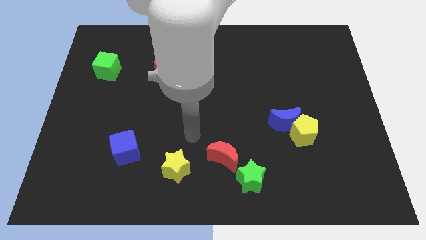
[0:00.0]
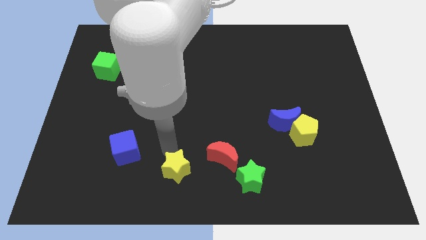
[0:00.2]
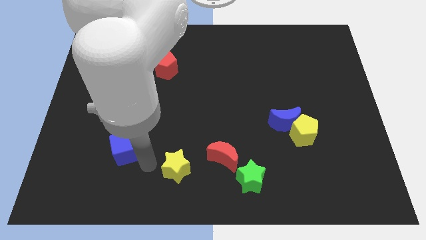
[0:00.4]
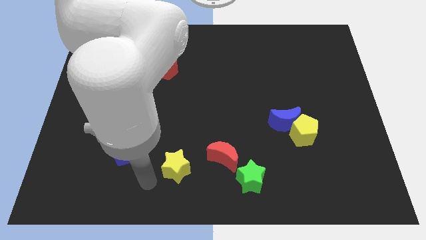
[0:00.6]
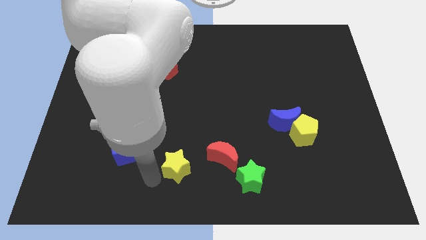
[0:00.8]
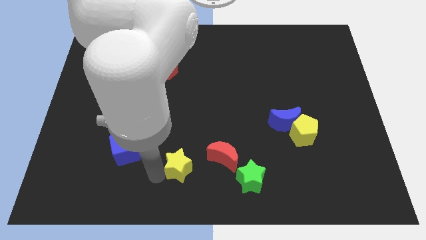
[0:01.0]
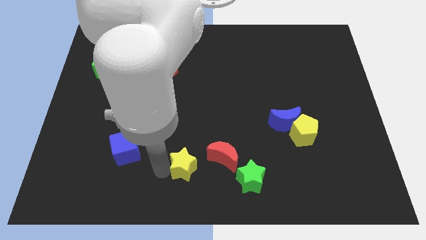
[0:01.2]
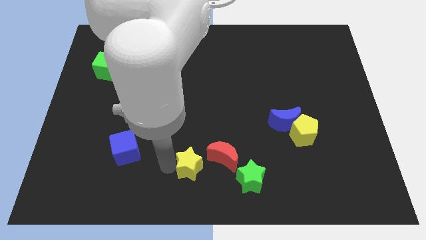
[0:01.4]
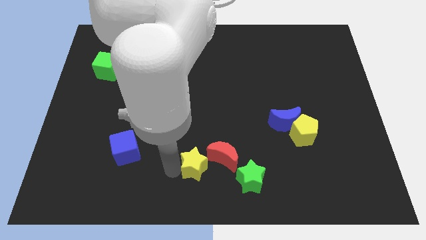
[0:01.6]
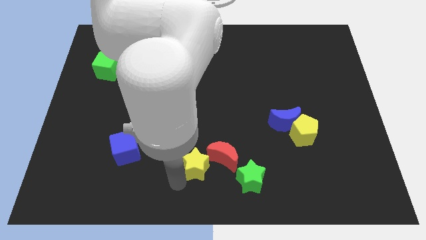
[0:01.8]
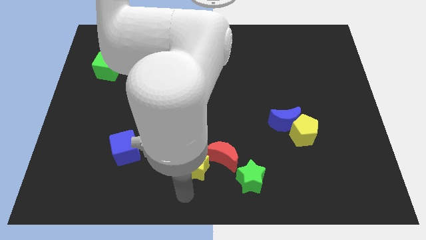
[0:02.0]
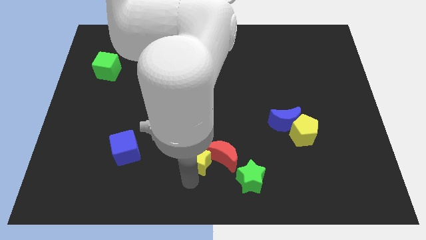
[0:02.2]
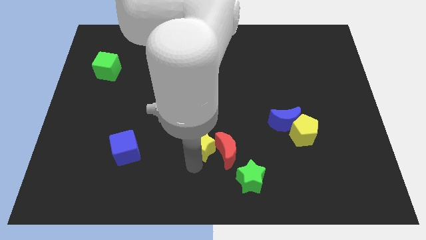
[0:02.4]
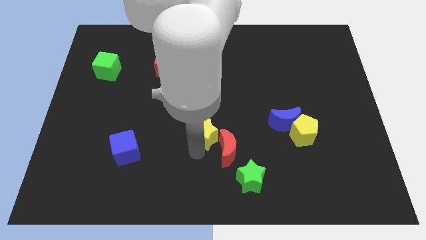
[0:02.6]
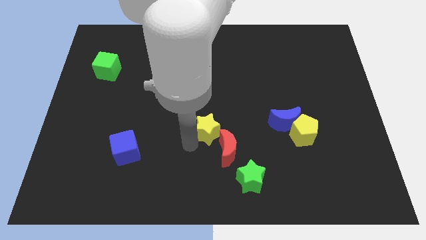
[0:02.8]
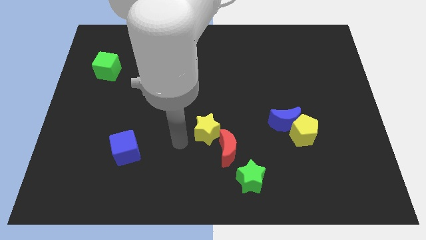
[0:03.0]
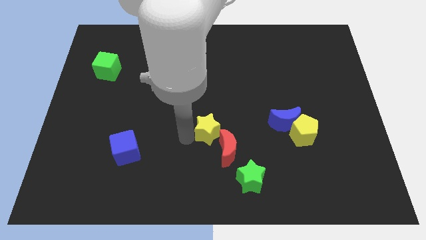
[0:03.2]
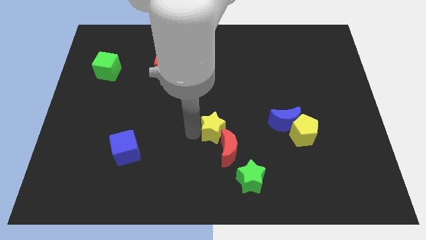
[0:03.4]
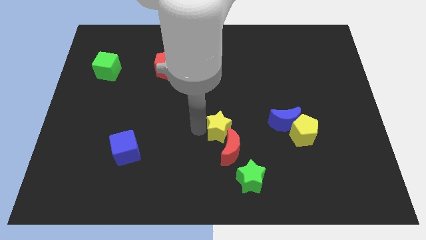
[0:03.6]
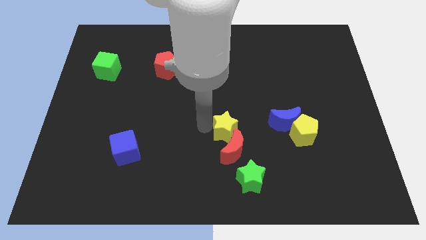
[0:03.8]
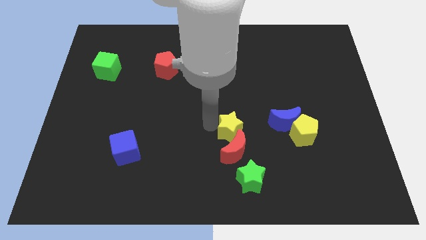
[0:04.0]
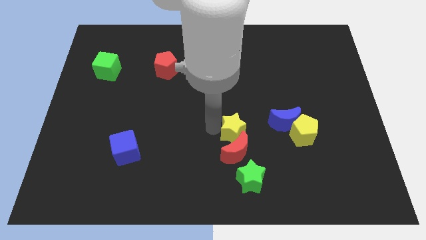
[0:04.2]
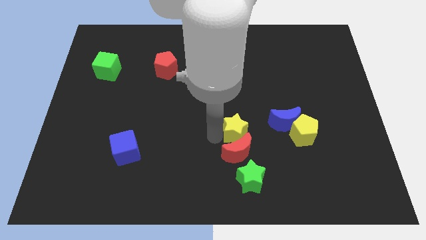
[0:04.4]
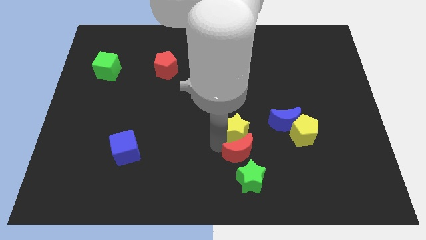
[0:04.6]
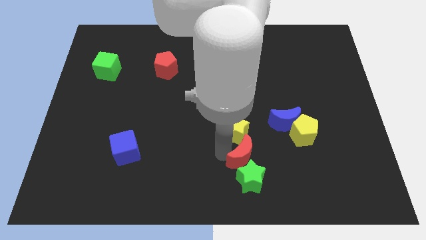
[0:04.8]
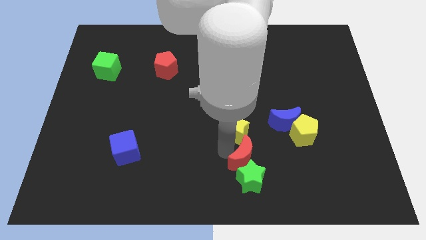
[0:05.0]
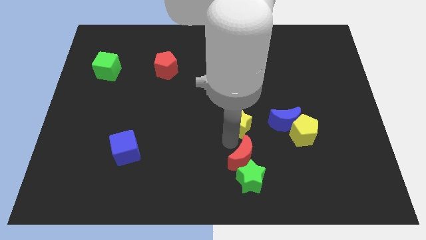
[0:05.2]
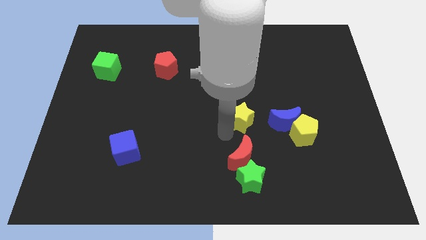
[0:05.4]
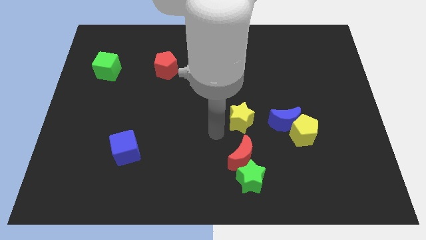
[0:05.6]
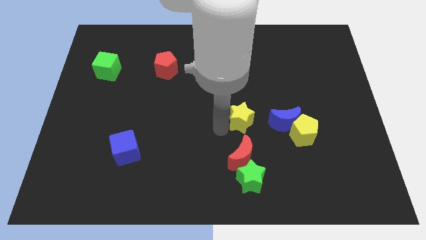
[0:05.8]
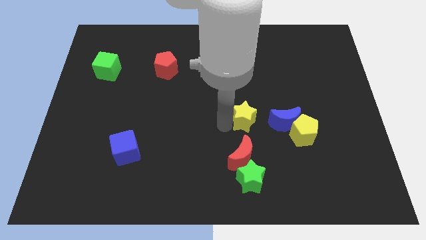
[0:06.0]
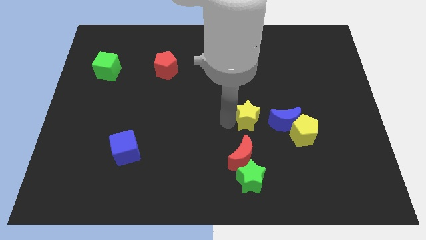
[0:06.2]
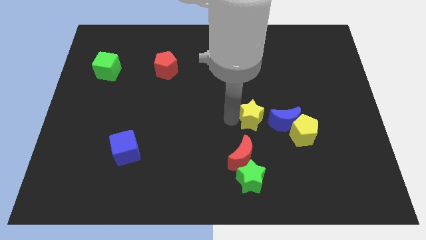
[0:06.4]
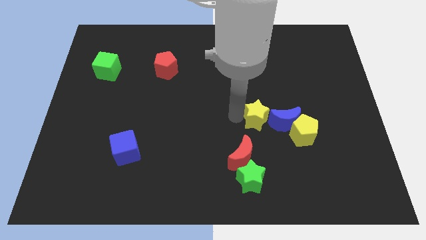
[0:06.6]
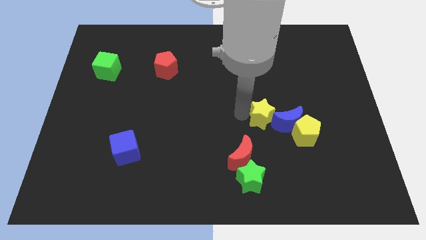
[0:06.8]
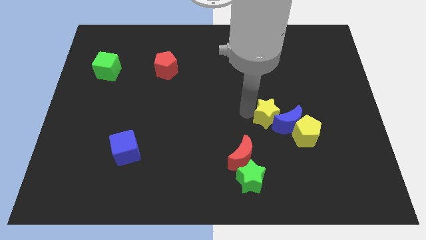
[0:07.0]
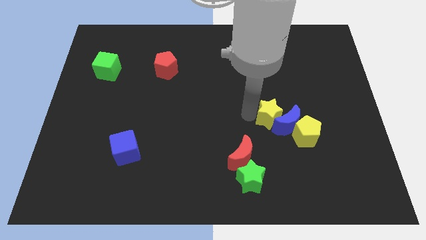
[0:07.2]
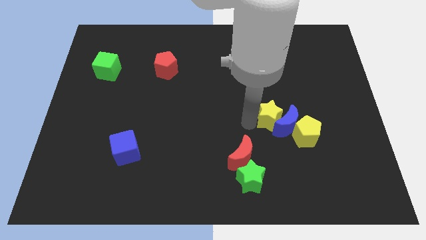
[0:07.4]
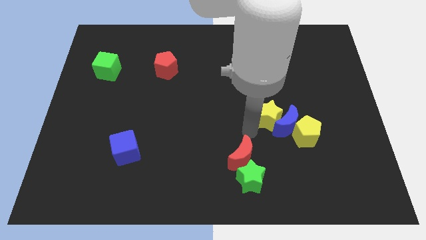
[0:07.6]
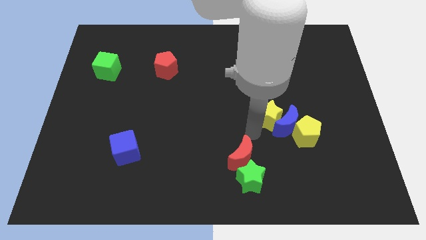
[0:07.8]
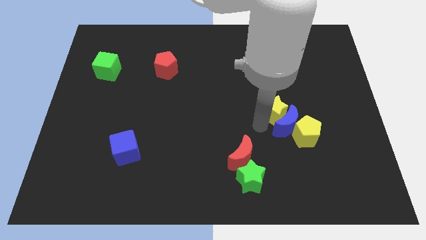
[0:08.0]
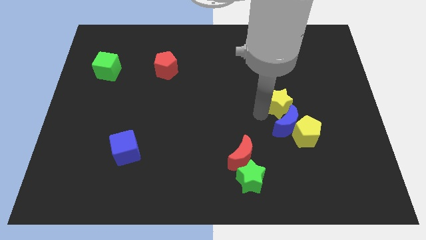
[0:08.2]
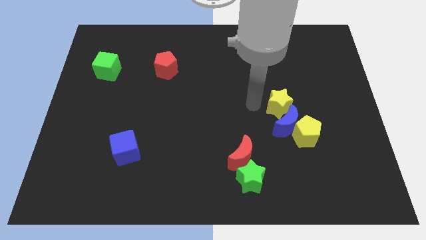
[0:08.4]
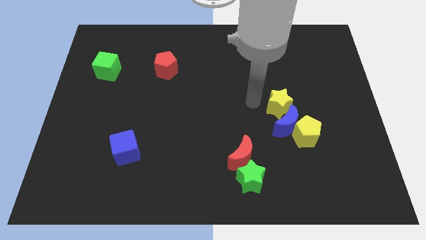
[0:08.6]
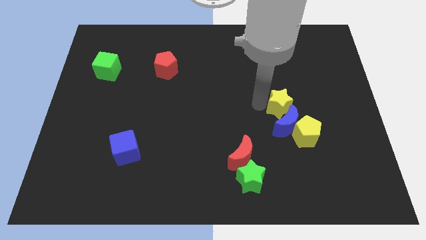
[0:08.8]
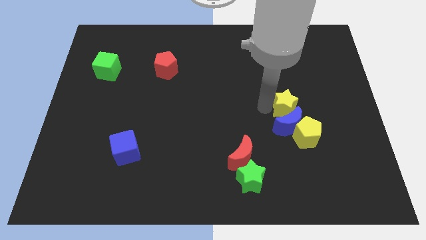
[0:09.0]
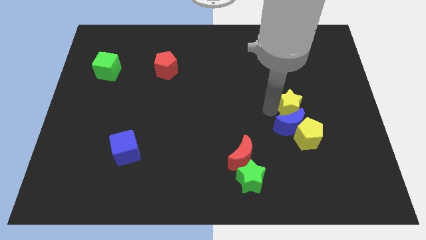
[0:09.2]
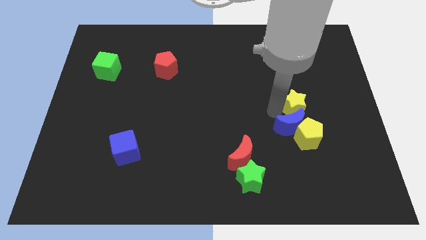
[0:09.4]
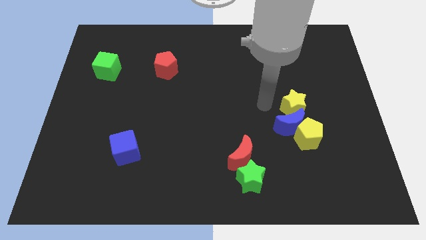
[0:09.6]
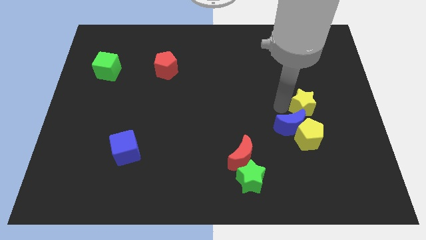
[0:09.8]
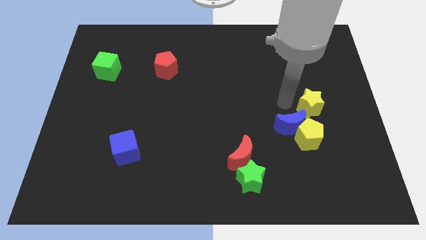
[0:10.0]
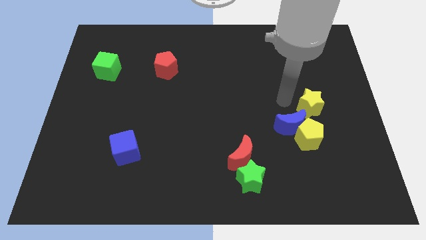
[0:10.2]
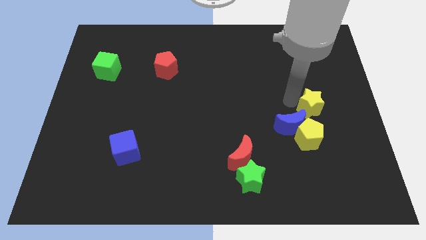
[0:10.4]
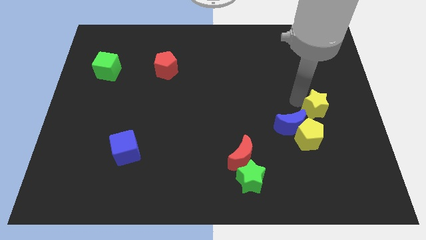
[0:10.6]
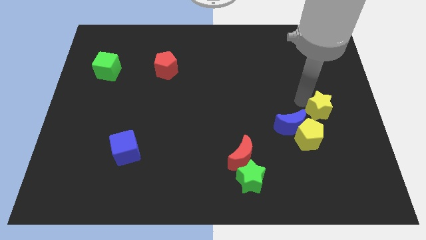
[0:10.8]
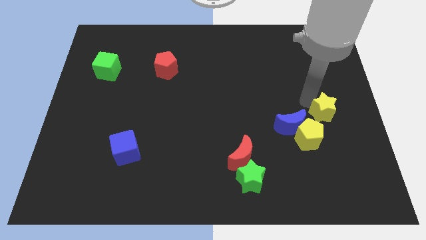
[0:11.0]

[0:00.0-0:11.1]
put the yellow star to the center right

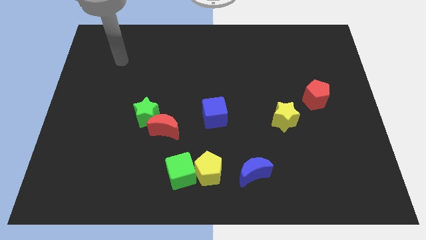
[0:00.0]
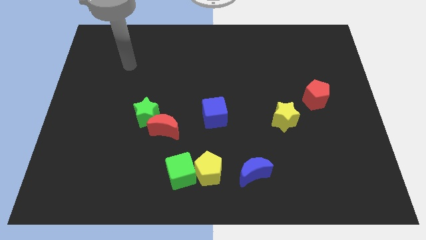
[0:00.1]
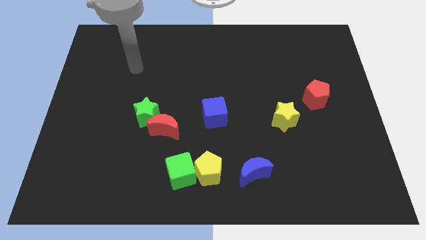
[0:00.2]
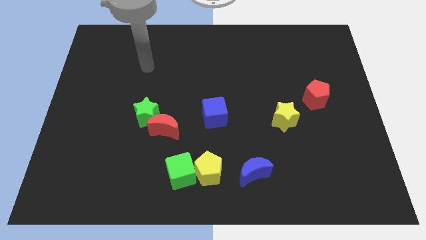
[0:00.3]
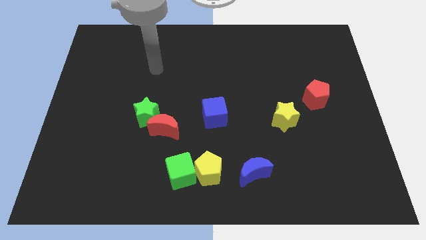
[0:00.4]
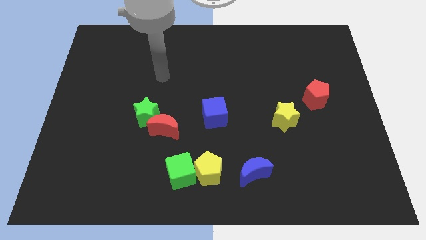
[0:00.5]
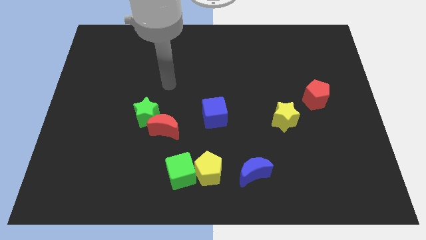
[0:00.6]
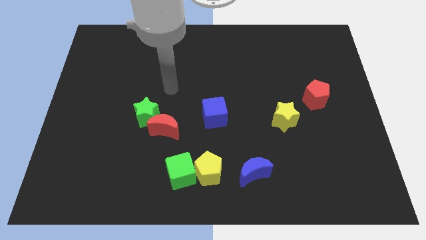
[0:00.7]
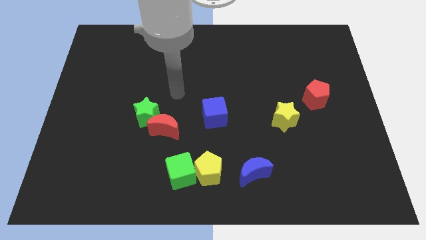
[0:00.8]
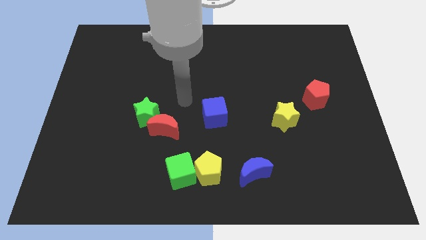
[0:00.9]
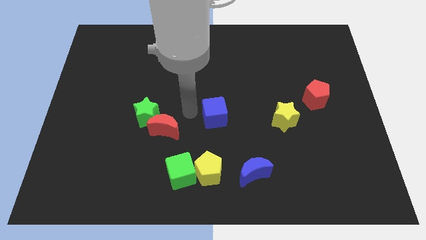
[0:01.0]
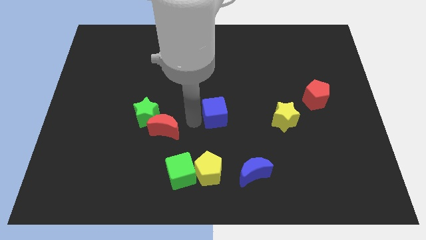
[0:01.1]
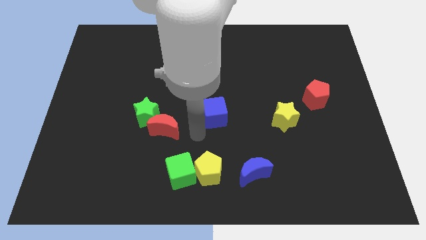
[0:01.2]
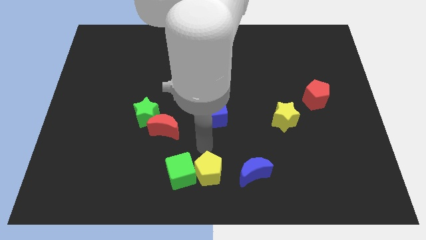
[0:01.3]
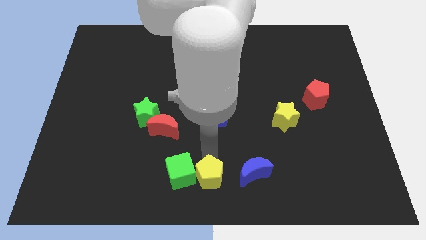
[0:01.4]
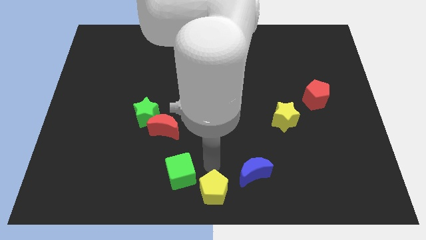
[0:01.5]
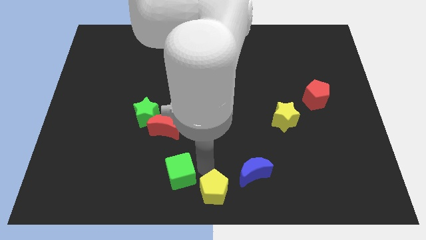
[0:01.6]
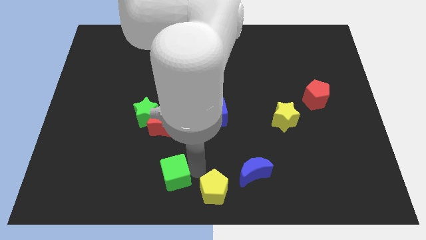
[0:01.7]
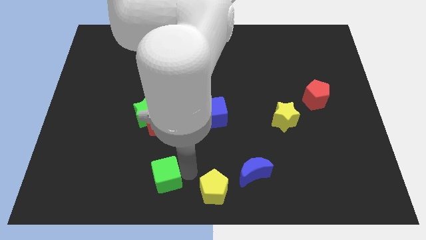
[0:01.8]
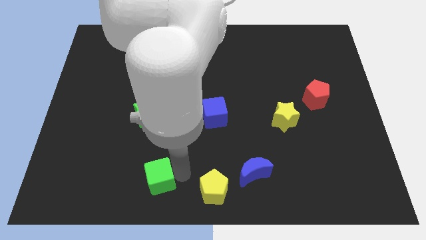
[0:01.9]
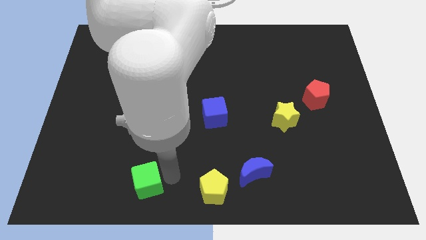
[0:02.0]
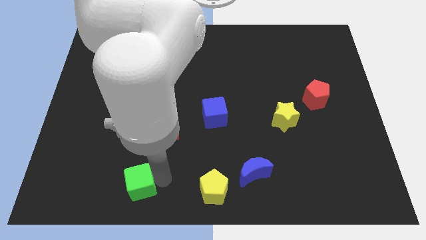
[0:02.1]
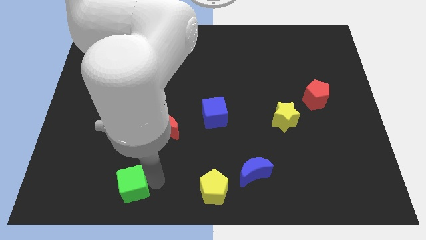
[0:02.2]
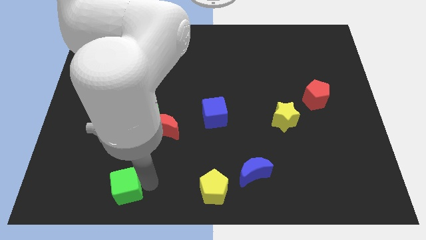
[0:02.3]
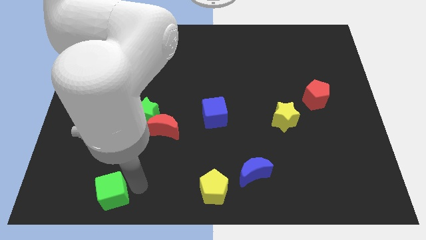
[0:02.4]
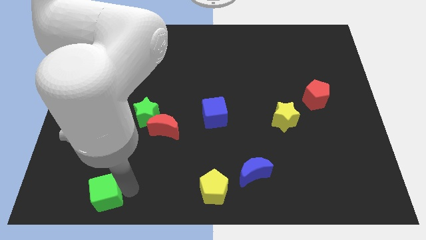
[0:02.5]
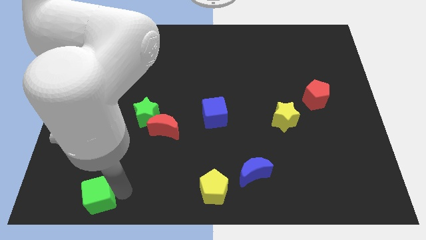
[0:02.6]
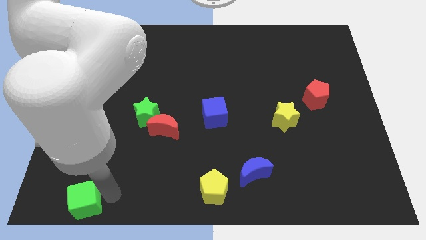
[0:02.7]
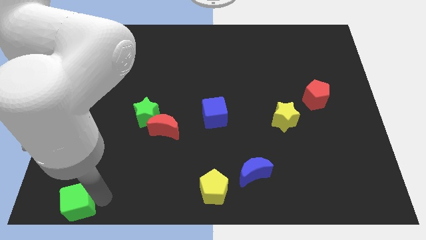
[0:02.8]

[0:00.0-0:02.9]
move the green cube to the bottom left

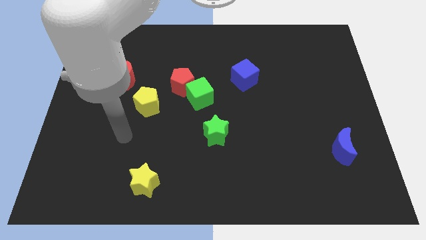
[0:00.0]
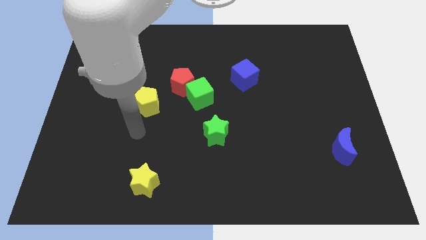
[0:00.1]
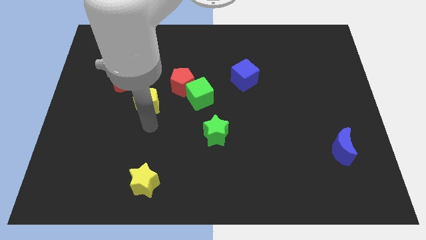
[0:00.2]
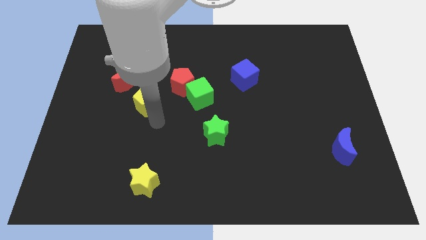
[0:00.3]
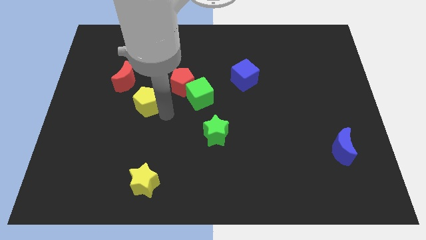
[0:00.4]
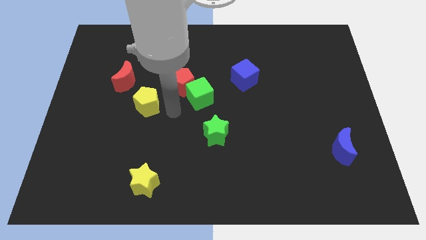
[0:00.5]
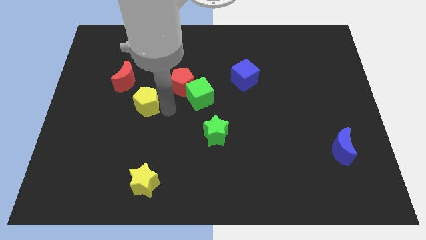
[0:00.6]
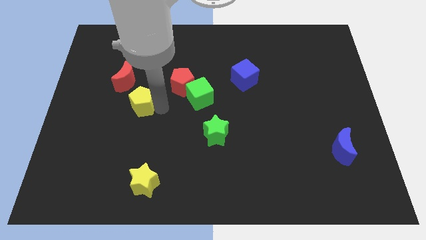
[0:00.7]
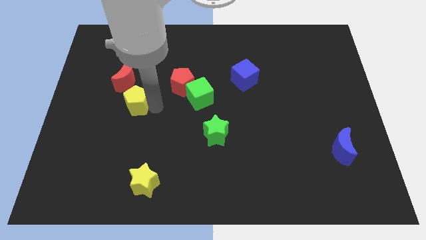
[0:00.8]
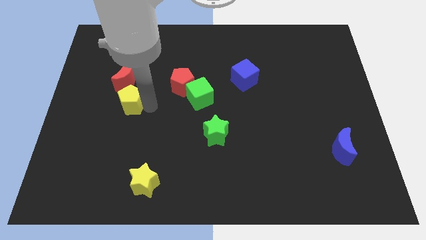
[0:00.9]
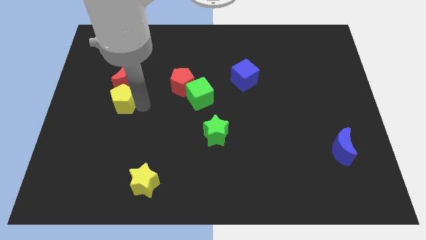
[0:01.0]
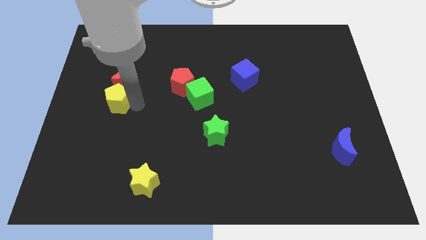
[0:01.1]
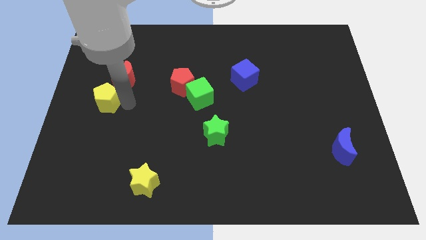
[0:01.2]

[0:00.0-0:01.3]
put the yellow pentagon to the center left
